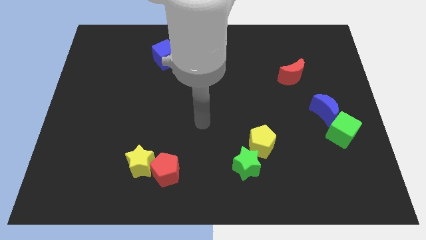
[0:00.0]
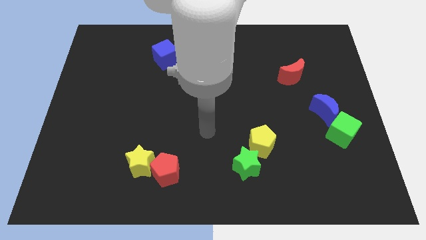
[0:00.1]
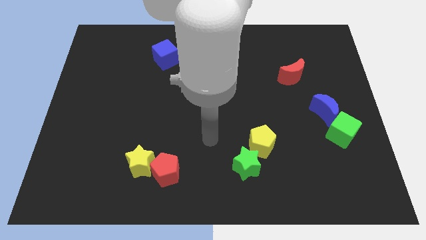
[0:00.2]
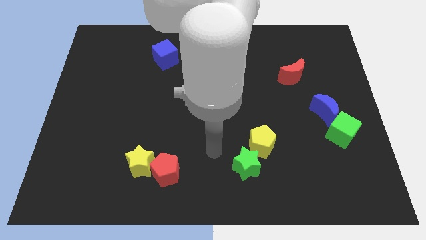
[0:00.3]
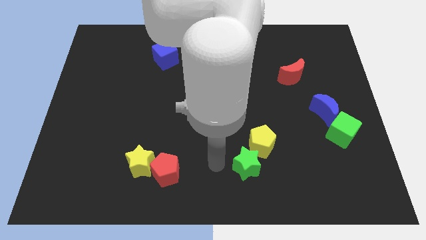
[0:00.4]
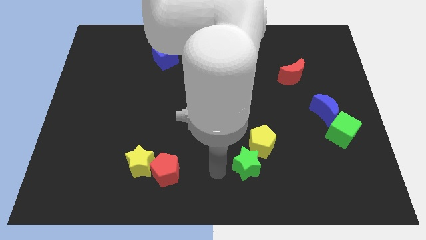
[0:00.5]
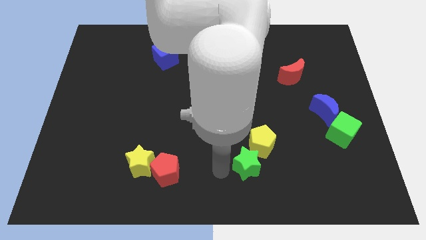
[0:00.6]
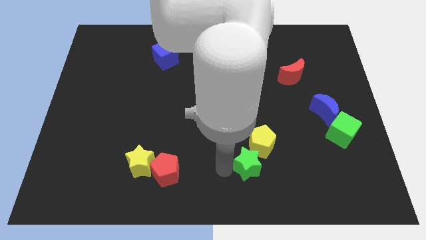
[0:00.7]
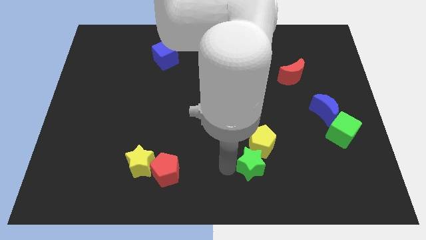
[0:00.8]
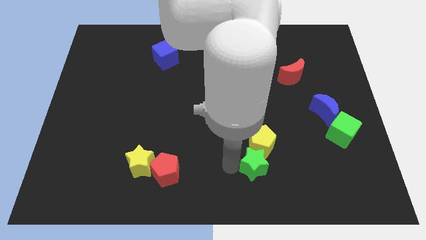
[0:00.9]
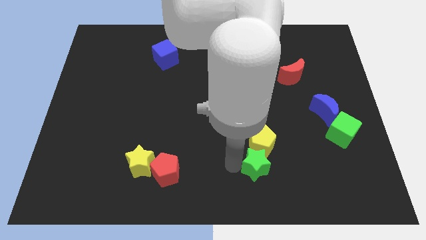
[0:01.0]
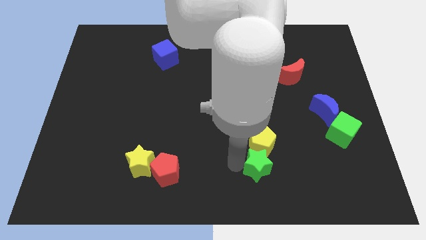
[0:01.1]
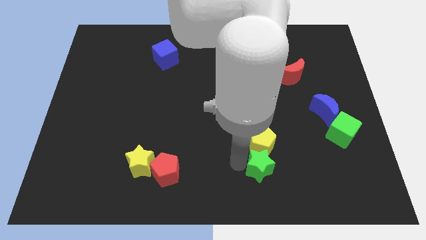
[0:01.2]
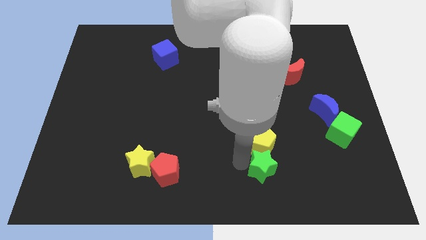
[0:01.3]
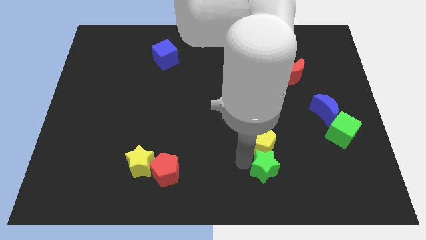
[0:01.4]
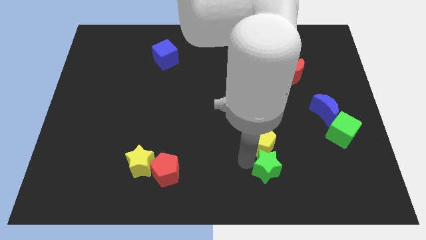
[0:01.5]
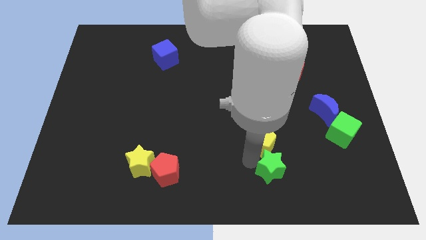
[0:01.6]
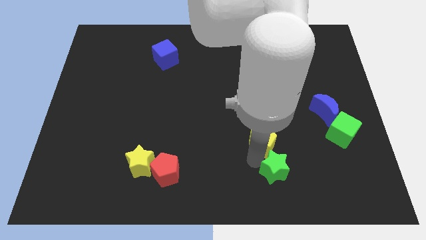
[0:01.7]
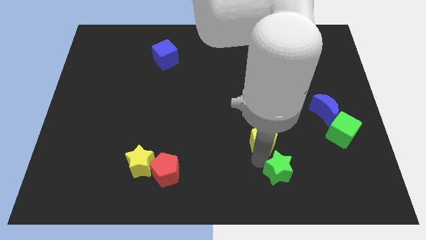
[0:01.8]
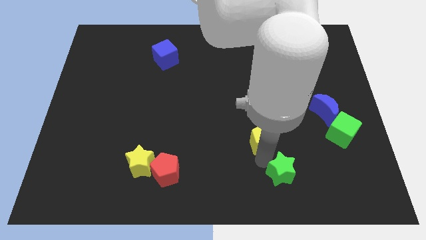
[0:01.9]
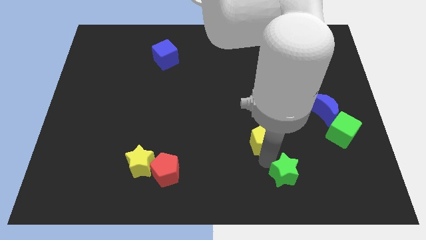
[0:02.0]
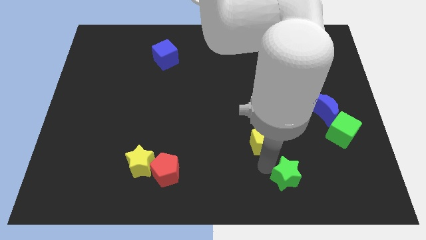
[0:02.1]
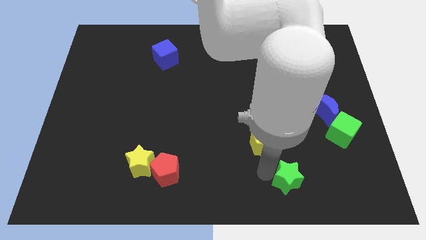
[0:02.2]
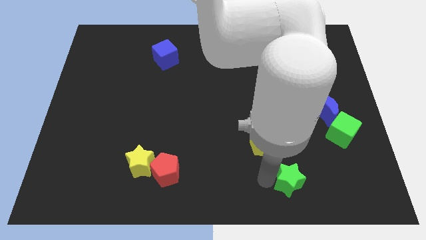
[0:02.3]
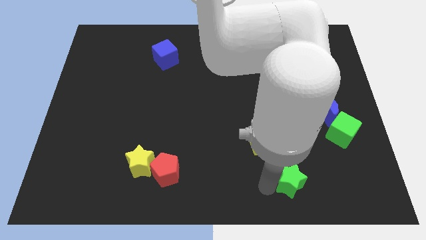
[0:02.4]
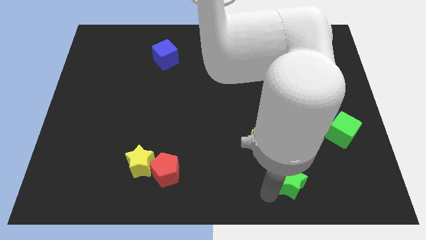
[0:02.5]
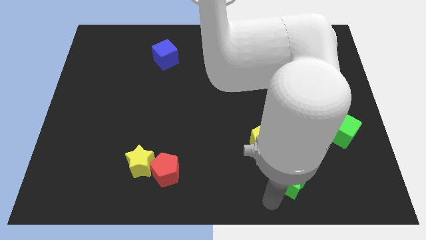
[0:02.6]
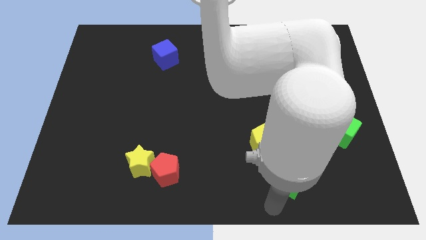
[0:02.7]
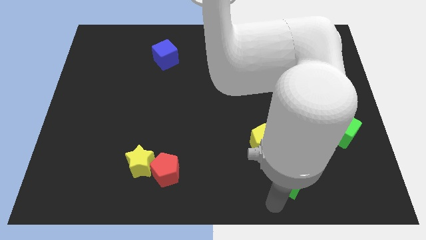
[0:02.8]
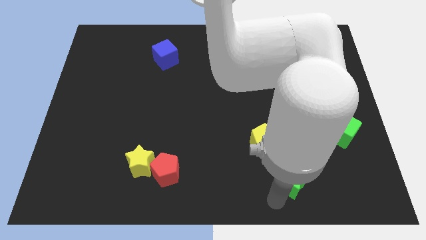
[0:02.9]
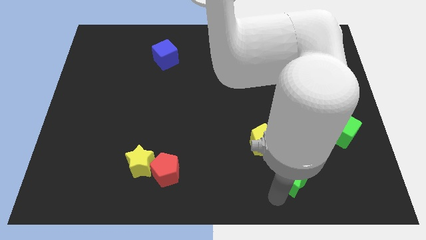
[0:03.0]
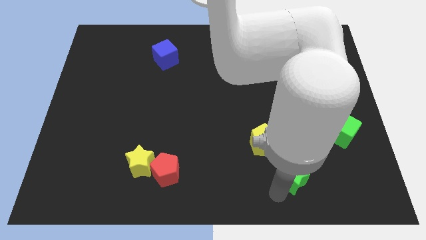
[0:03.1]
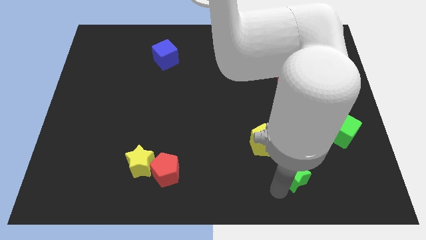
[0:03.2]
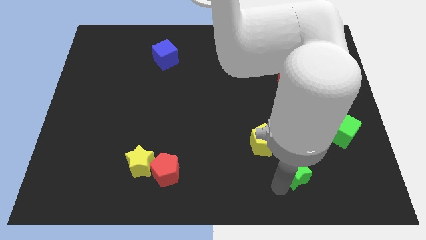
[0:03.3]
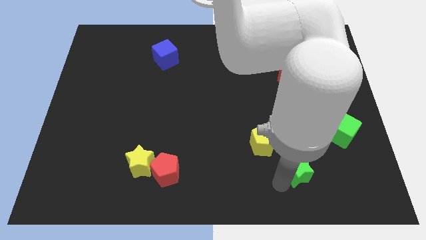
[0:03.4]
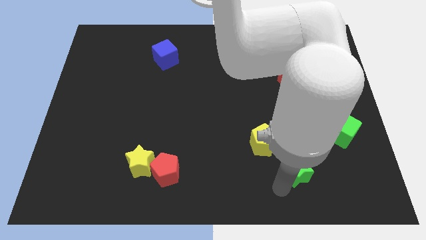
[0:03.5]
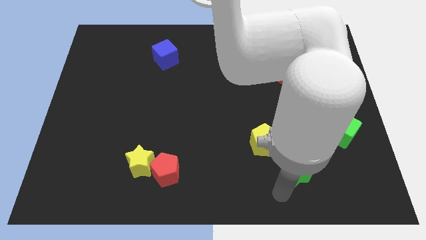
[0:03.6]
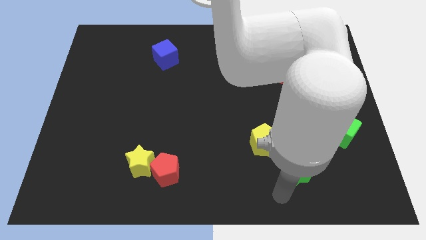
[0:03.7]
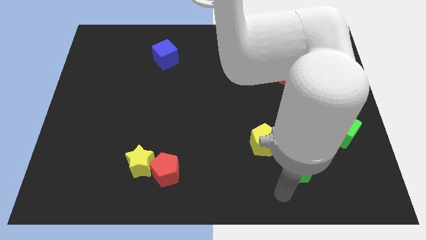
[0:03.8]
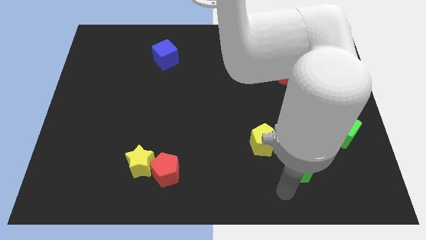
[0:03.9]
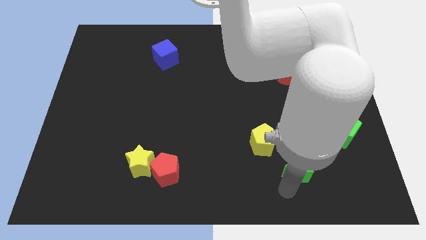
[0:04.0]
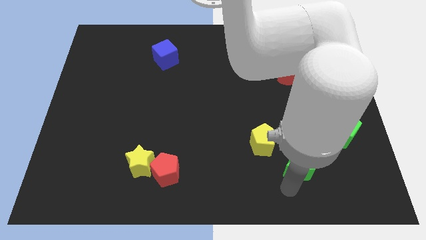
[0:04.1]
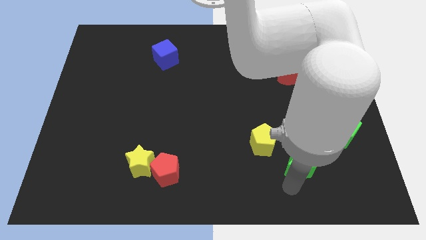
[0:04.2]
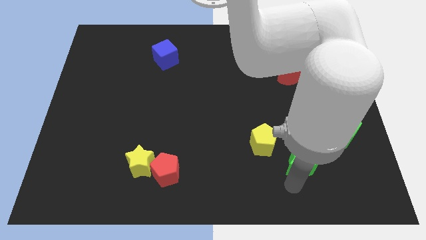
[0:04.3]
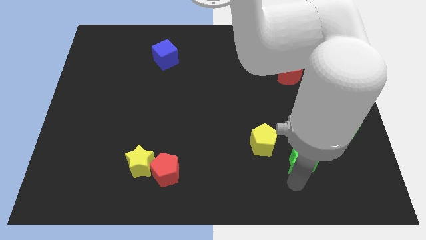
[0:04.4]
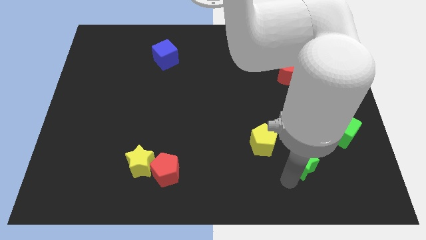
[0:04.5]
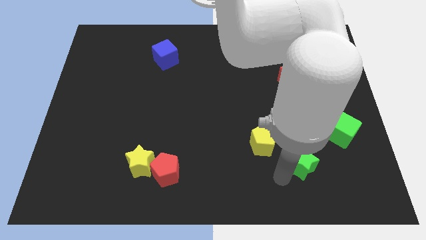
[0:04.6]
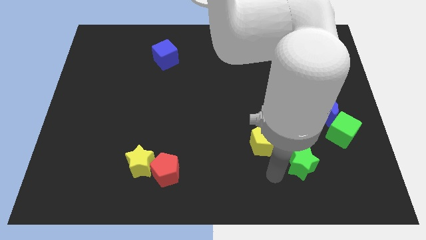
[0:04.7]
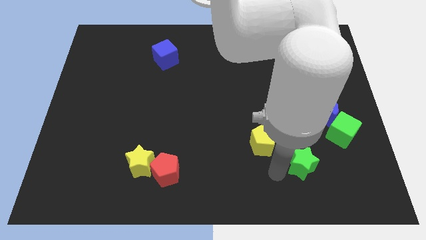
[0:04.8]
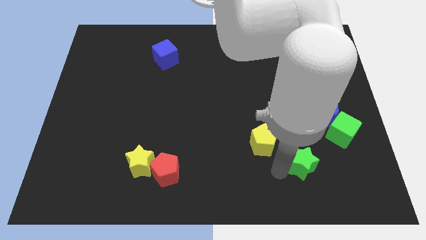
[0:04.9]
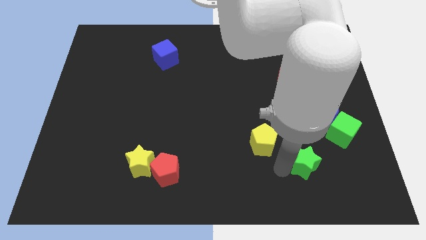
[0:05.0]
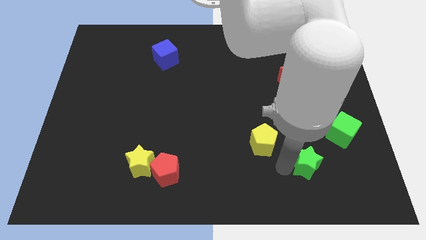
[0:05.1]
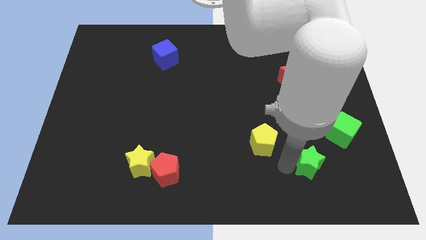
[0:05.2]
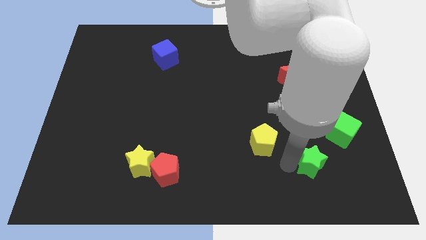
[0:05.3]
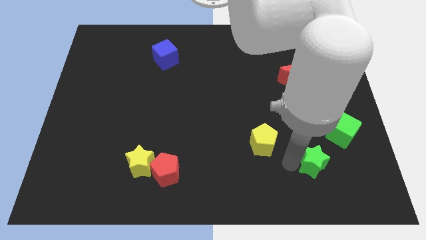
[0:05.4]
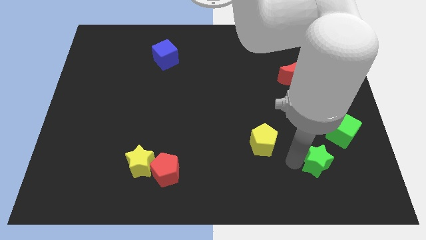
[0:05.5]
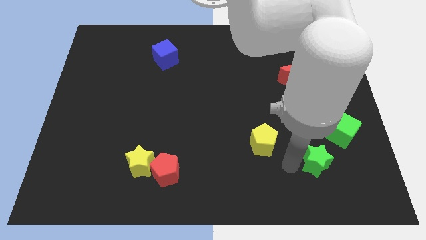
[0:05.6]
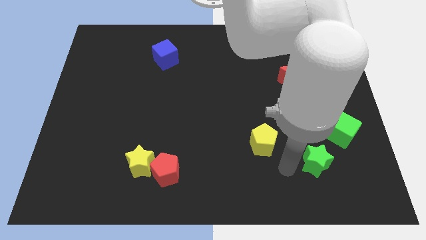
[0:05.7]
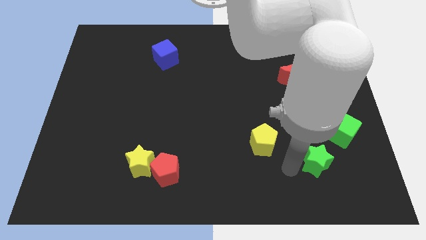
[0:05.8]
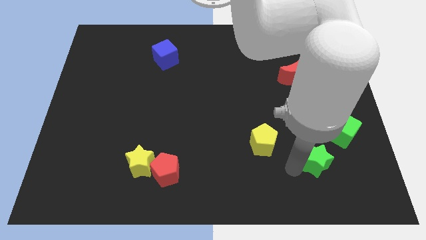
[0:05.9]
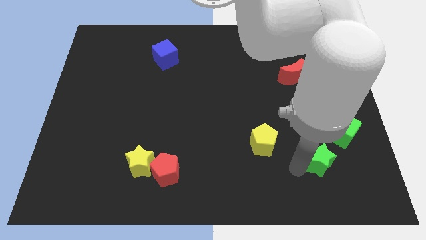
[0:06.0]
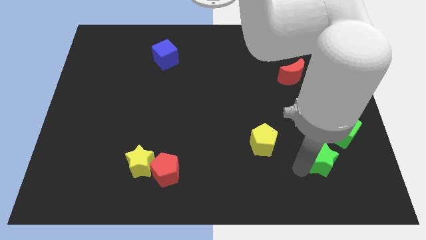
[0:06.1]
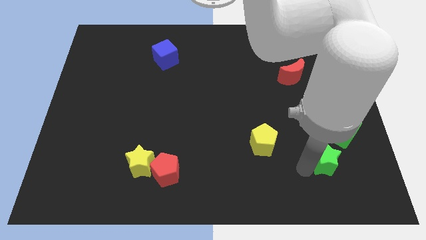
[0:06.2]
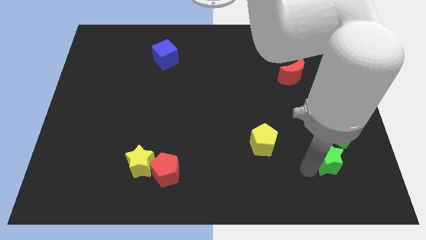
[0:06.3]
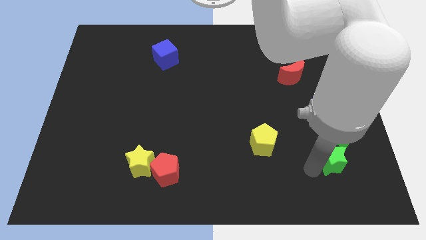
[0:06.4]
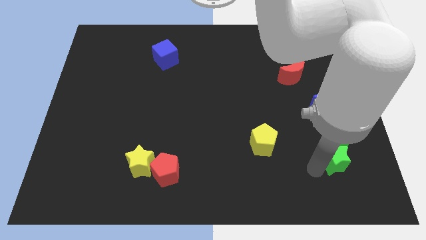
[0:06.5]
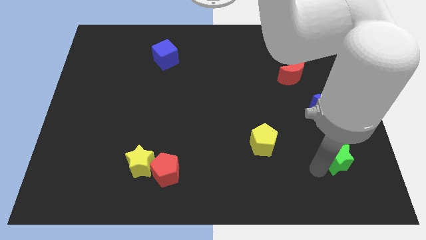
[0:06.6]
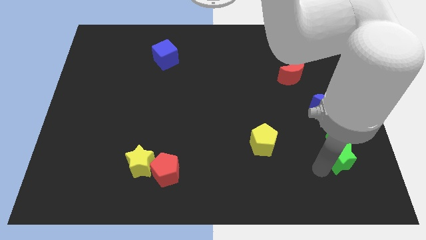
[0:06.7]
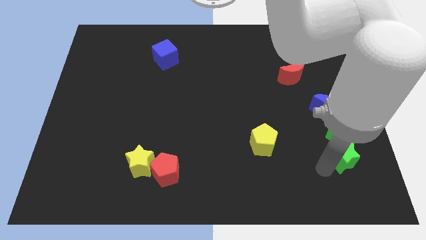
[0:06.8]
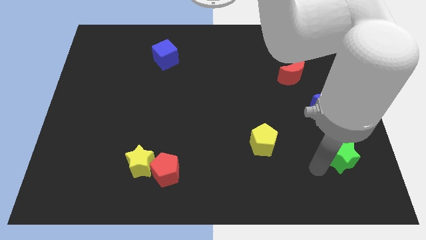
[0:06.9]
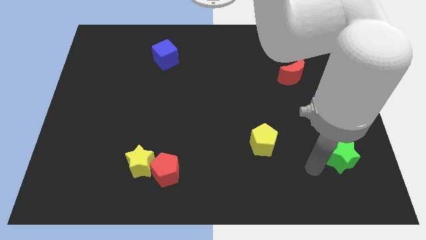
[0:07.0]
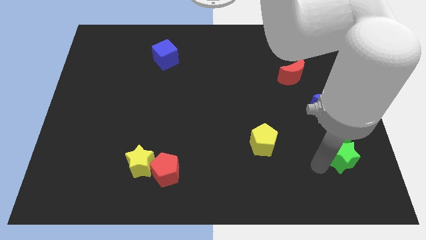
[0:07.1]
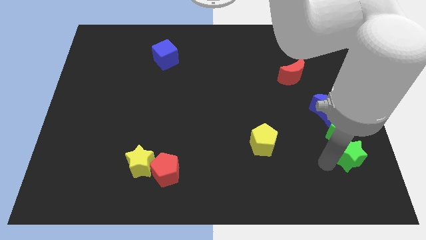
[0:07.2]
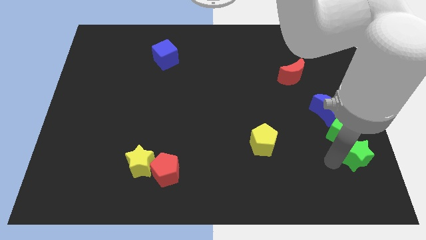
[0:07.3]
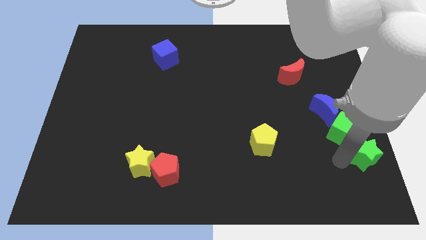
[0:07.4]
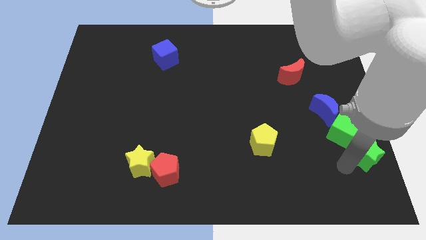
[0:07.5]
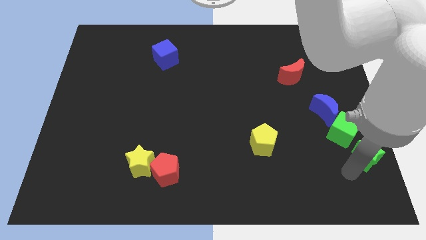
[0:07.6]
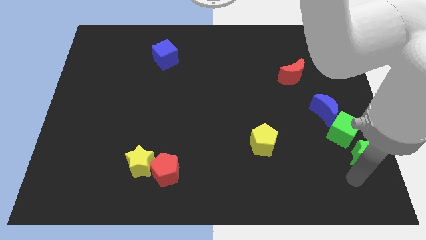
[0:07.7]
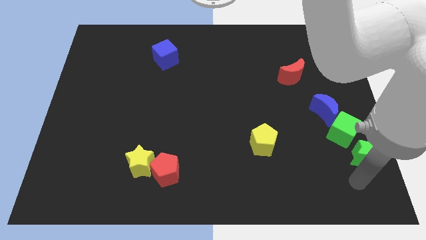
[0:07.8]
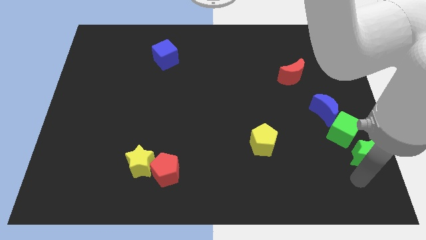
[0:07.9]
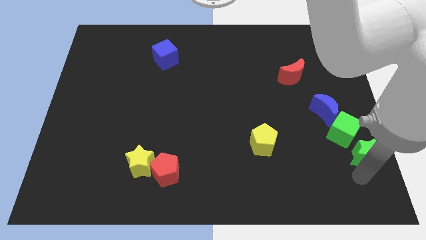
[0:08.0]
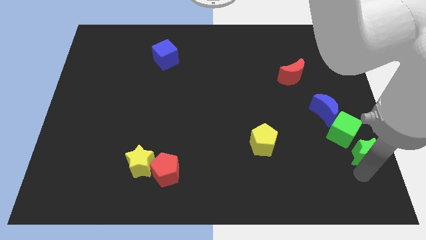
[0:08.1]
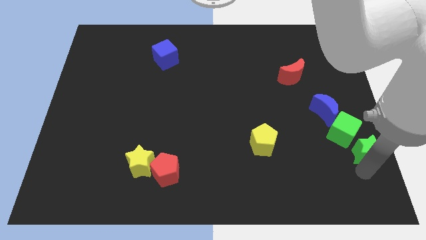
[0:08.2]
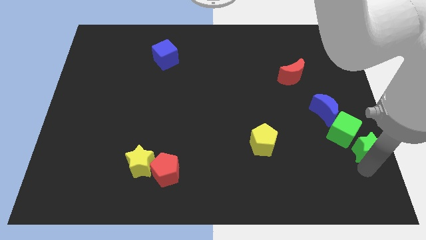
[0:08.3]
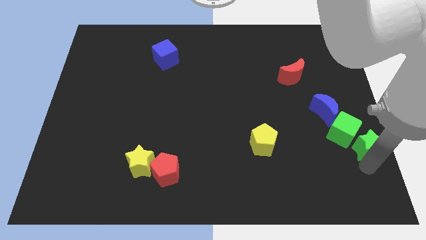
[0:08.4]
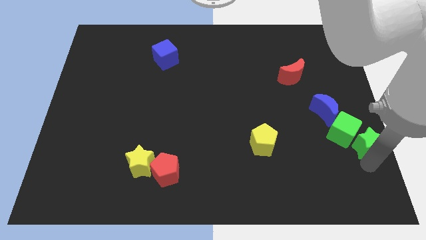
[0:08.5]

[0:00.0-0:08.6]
slide the green star to the right side of the board
